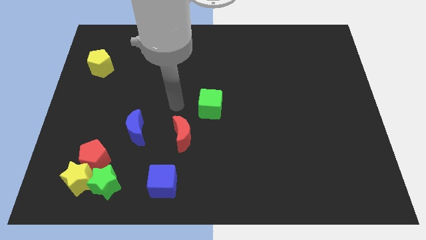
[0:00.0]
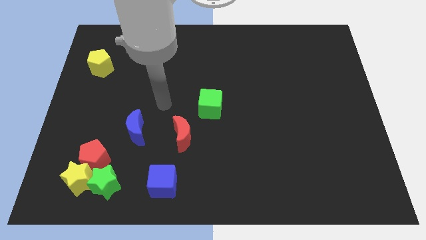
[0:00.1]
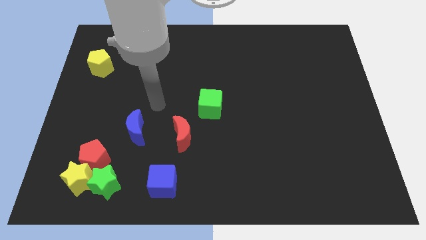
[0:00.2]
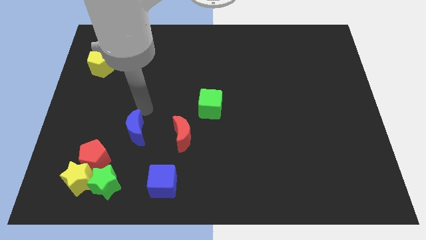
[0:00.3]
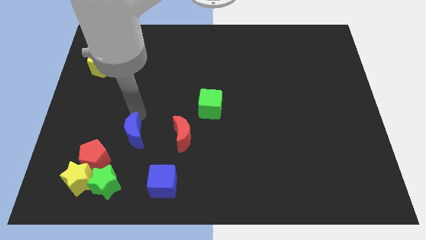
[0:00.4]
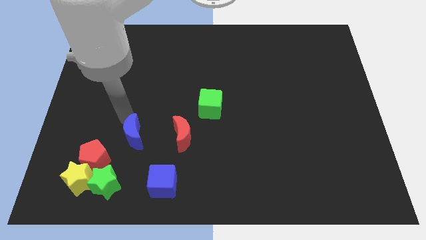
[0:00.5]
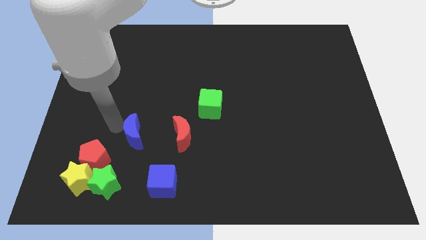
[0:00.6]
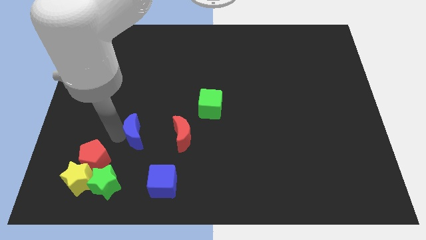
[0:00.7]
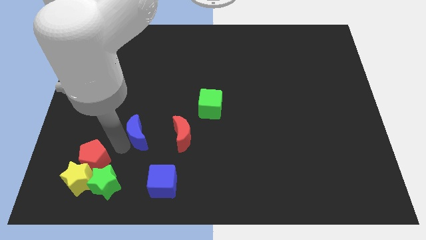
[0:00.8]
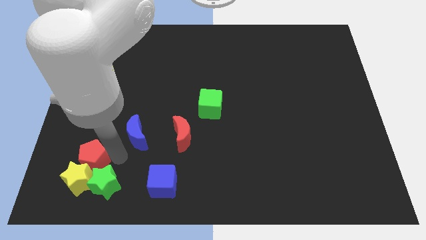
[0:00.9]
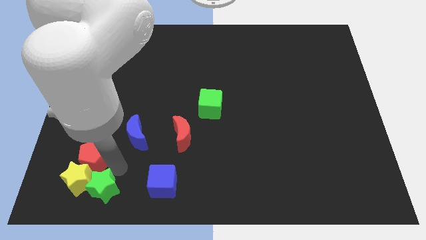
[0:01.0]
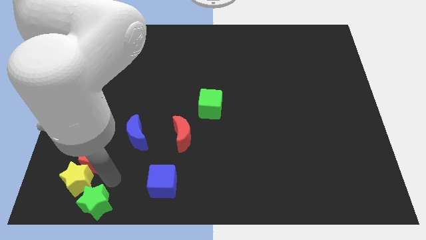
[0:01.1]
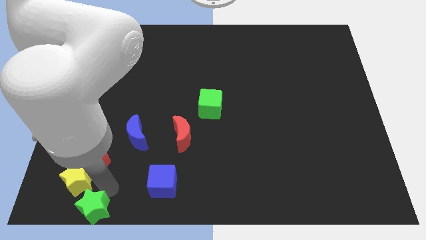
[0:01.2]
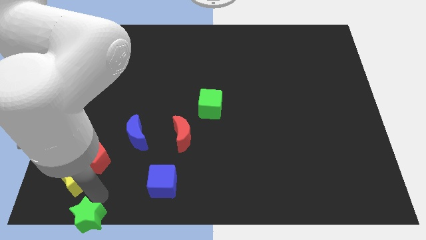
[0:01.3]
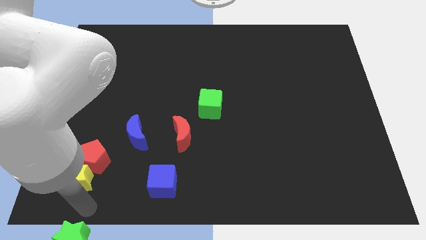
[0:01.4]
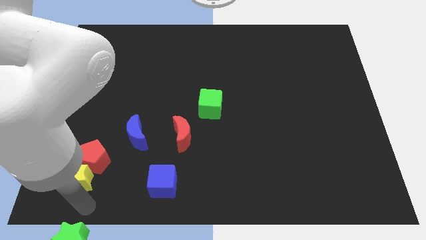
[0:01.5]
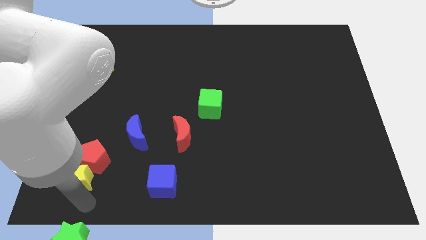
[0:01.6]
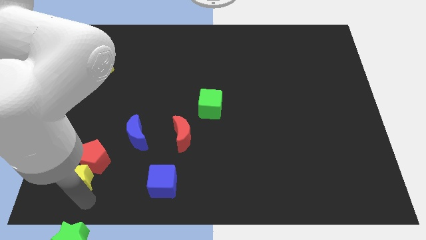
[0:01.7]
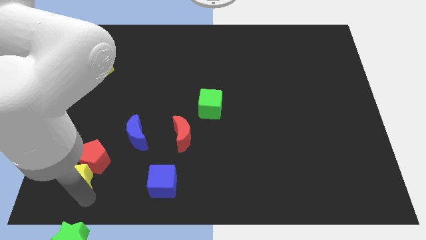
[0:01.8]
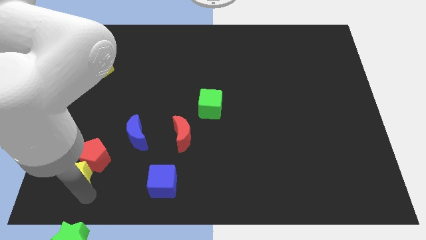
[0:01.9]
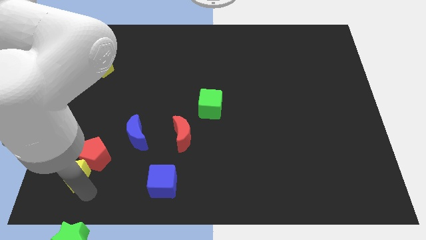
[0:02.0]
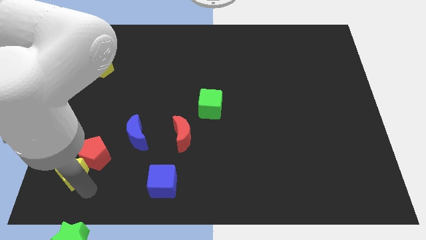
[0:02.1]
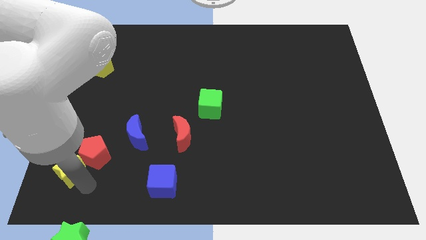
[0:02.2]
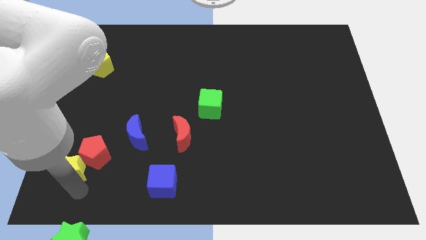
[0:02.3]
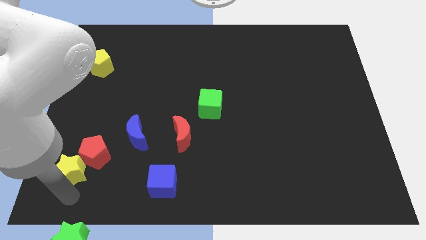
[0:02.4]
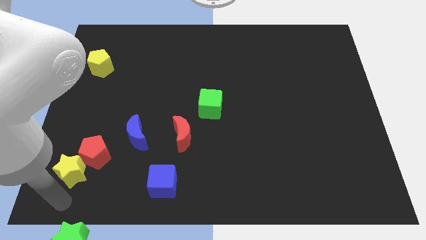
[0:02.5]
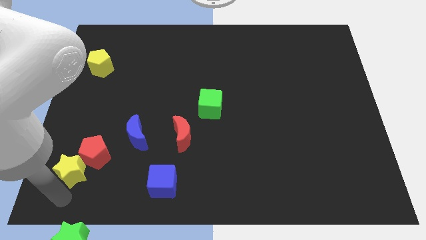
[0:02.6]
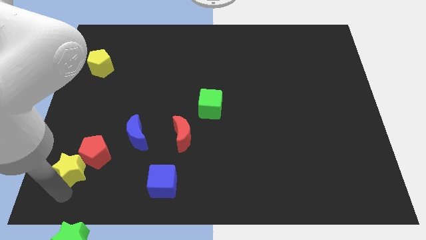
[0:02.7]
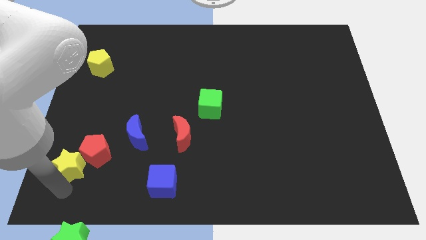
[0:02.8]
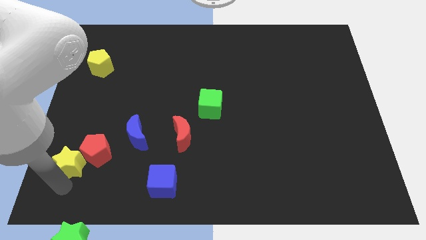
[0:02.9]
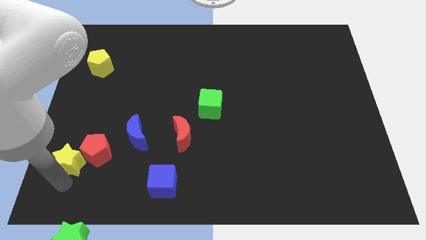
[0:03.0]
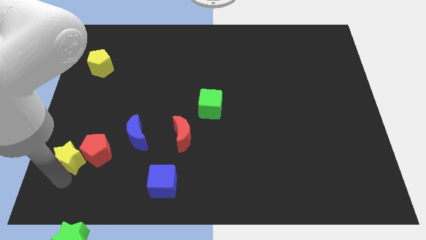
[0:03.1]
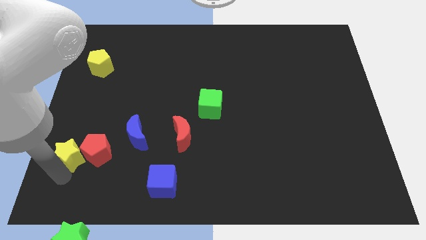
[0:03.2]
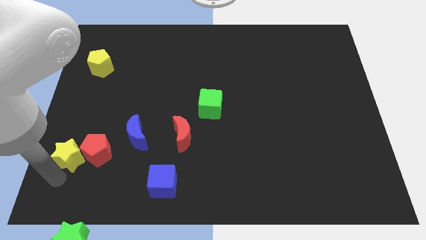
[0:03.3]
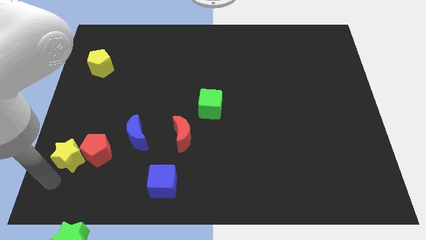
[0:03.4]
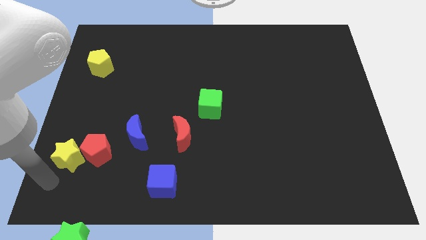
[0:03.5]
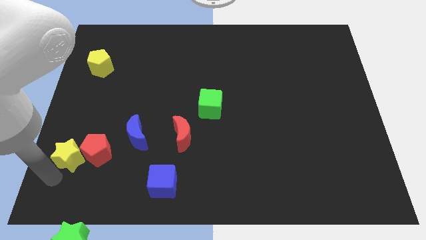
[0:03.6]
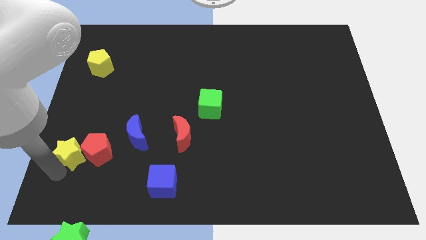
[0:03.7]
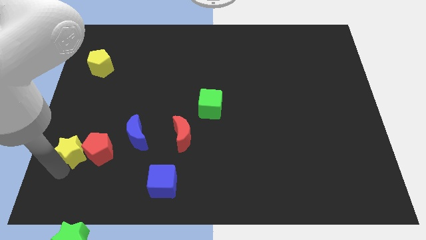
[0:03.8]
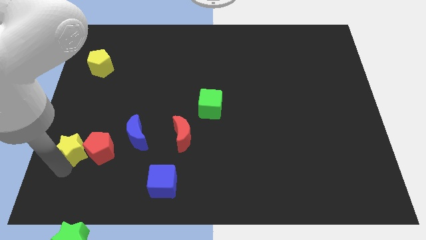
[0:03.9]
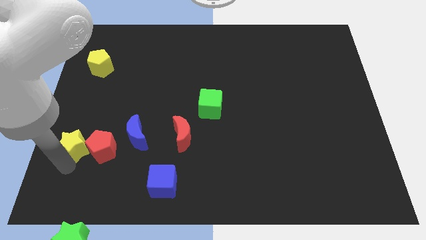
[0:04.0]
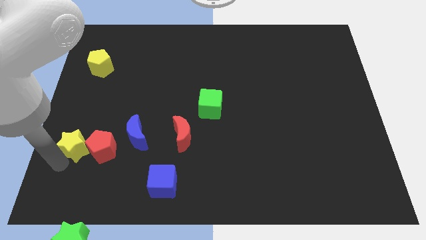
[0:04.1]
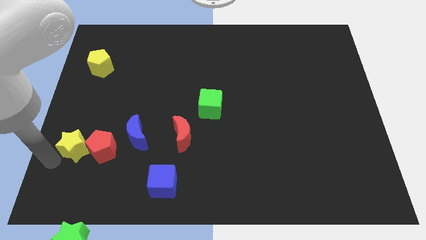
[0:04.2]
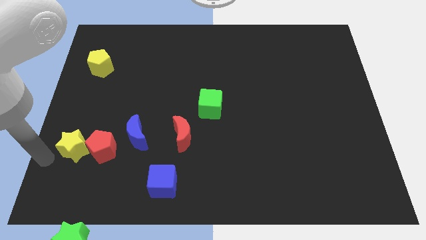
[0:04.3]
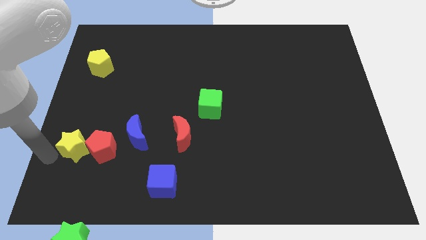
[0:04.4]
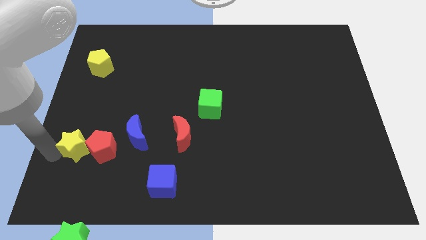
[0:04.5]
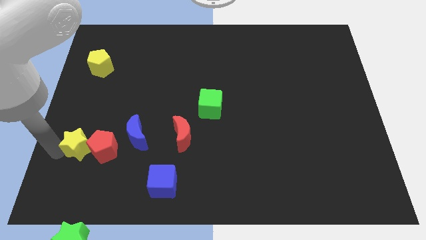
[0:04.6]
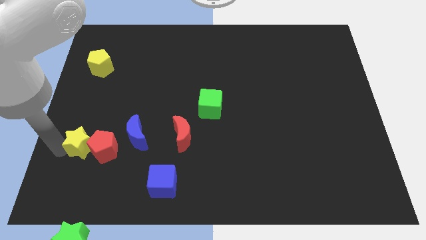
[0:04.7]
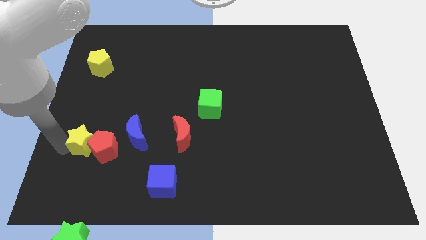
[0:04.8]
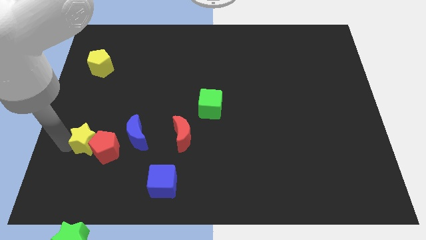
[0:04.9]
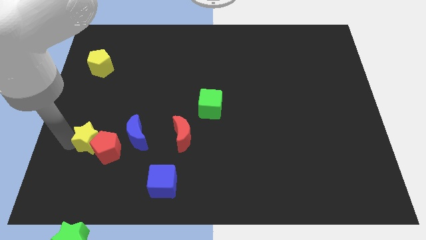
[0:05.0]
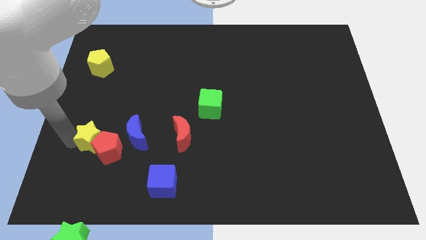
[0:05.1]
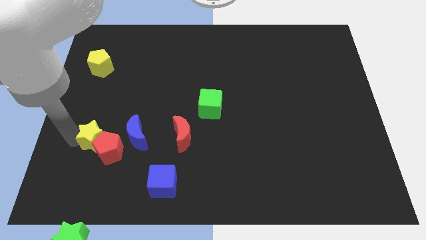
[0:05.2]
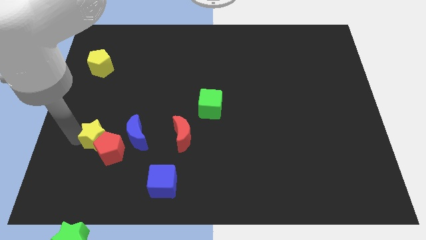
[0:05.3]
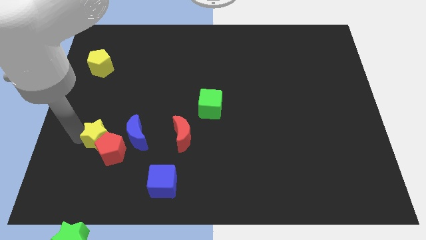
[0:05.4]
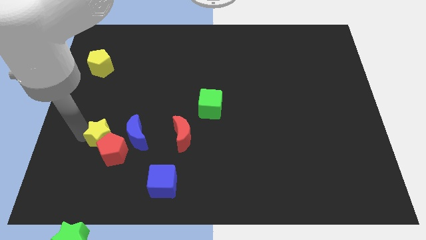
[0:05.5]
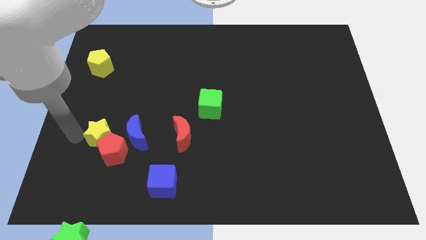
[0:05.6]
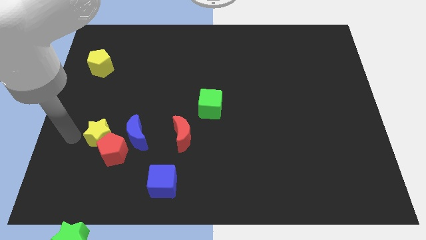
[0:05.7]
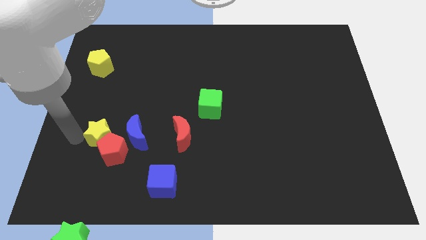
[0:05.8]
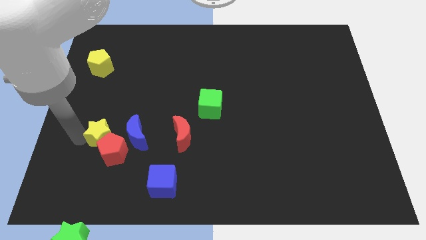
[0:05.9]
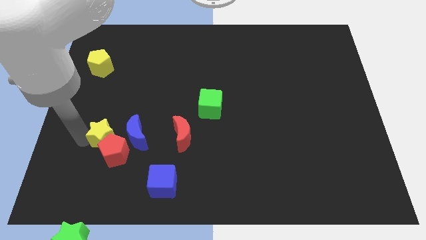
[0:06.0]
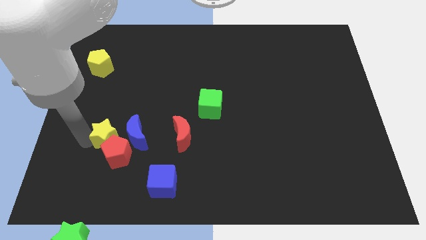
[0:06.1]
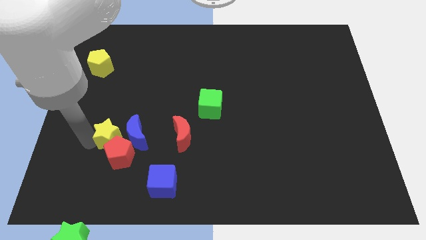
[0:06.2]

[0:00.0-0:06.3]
put the yellow star close to the blue moon

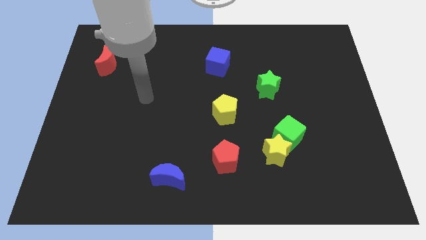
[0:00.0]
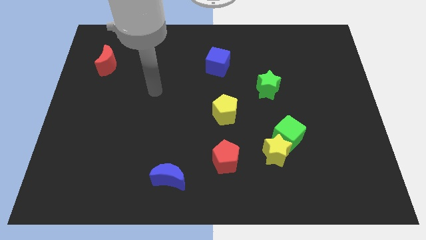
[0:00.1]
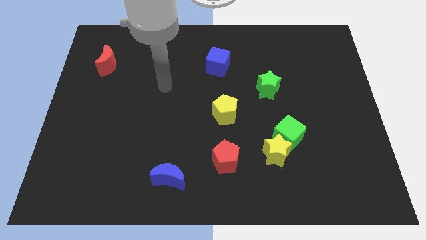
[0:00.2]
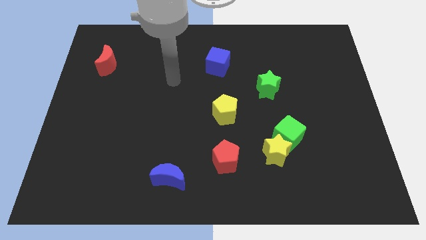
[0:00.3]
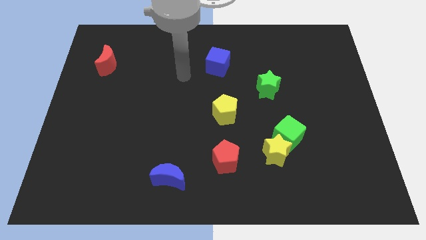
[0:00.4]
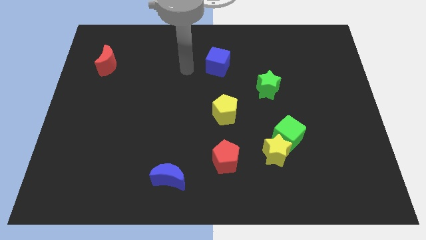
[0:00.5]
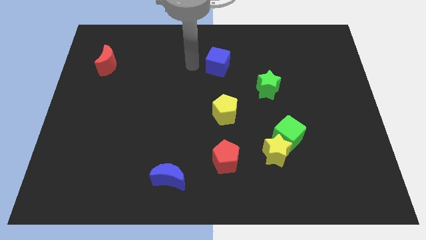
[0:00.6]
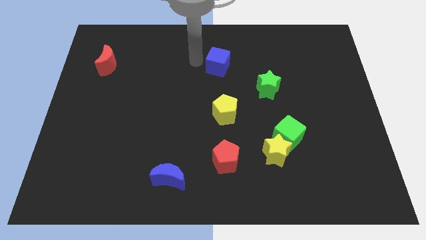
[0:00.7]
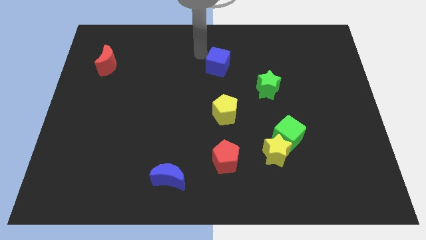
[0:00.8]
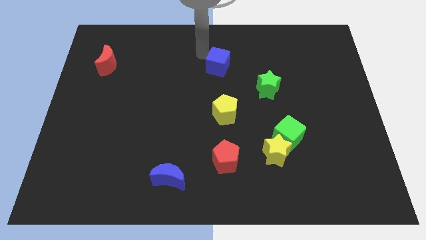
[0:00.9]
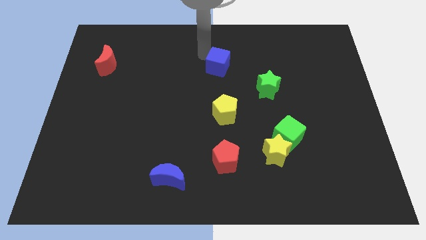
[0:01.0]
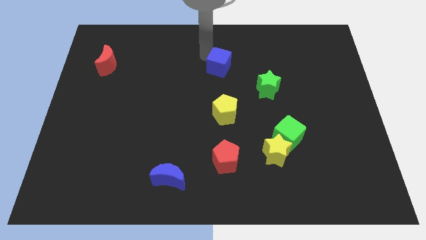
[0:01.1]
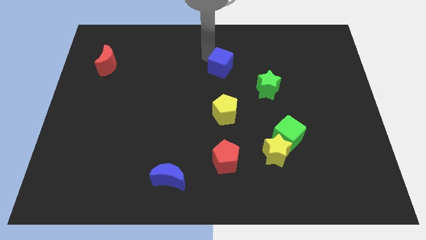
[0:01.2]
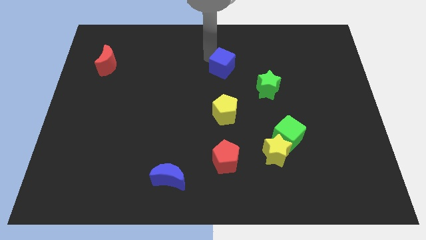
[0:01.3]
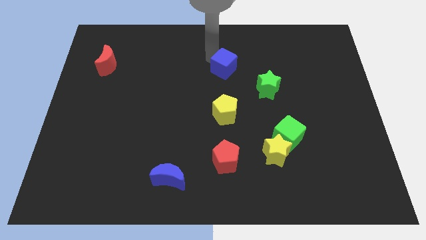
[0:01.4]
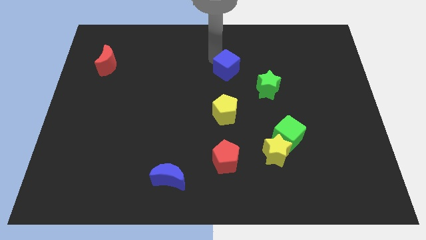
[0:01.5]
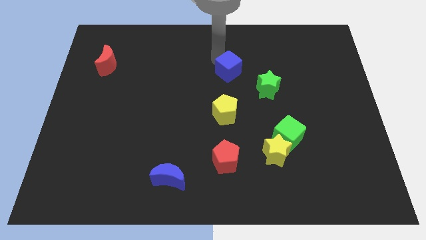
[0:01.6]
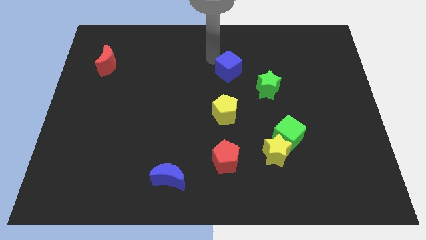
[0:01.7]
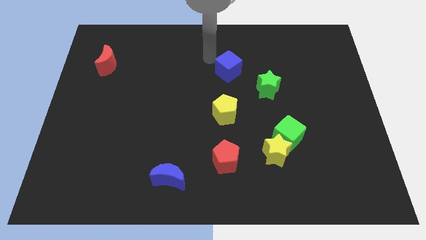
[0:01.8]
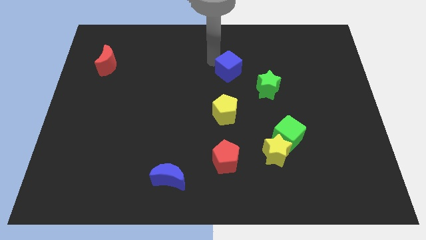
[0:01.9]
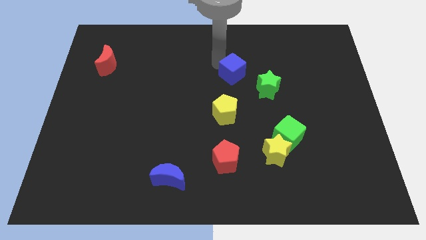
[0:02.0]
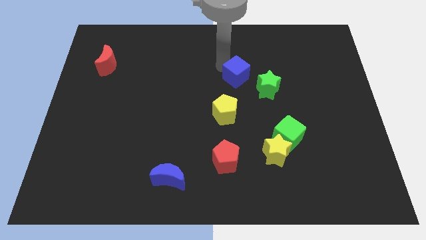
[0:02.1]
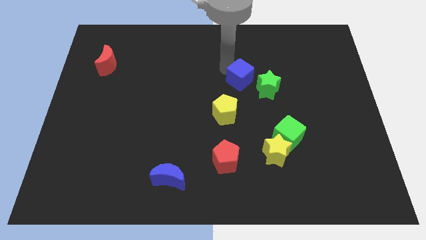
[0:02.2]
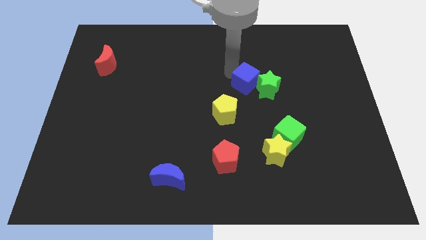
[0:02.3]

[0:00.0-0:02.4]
move the blue cube to the green star
